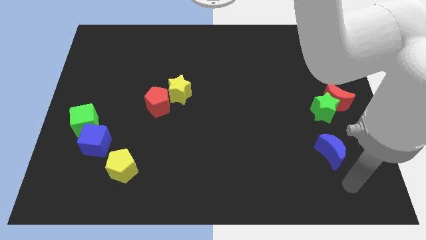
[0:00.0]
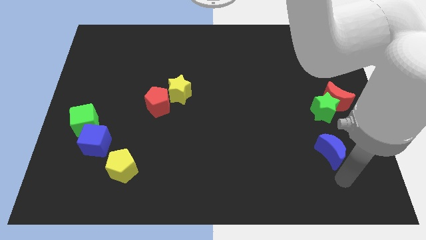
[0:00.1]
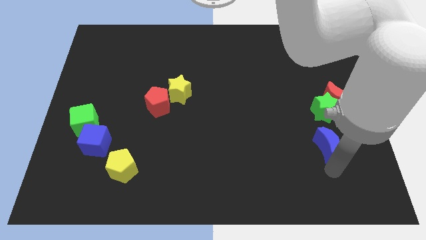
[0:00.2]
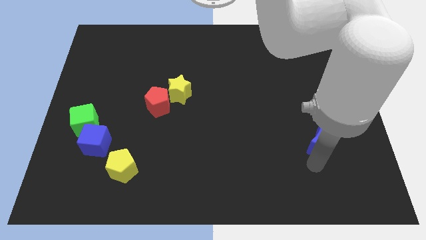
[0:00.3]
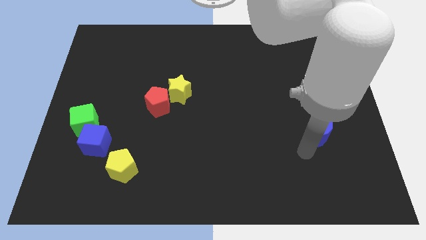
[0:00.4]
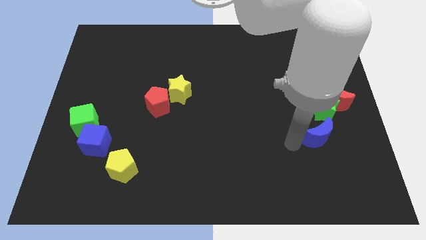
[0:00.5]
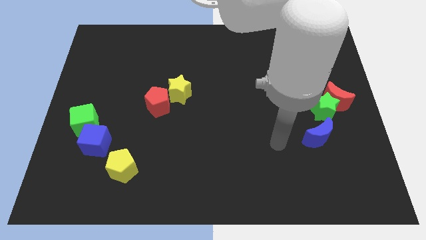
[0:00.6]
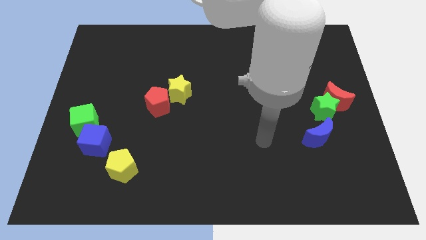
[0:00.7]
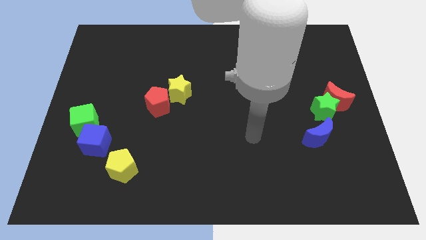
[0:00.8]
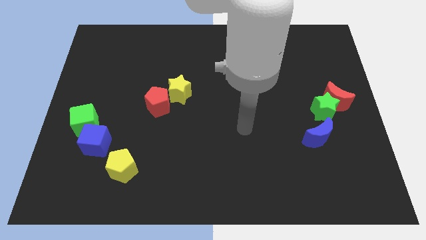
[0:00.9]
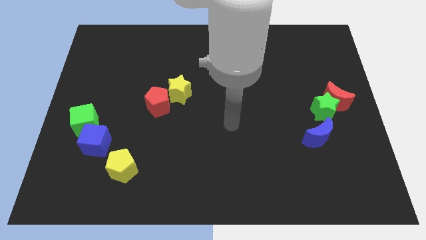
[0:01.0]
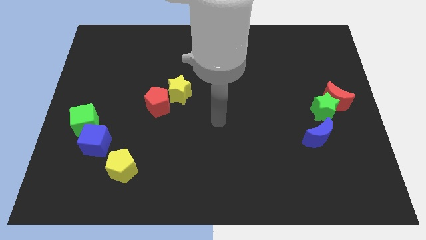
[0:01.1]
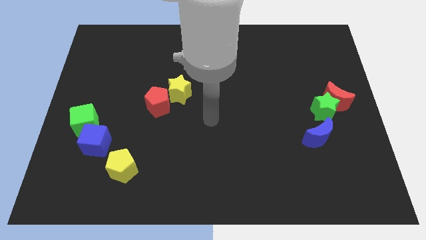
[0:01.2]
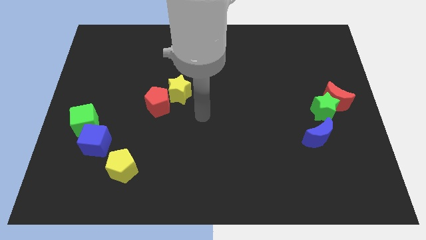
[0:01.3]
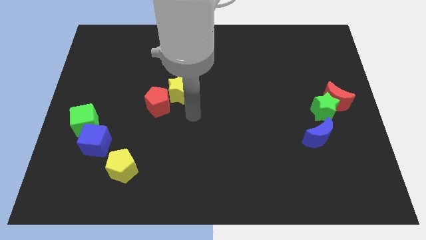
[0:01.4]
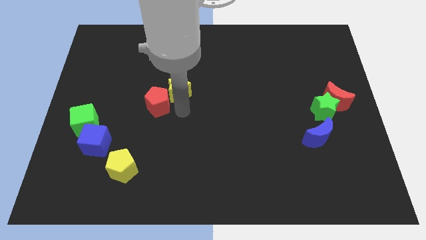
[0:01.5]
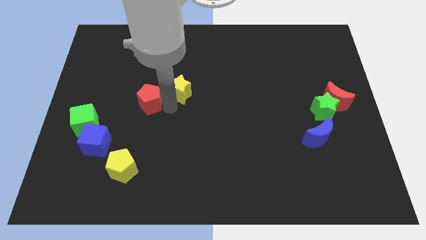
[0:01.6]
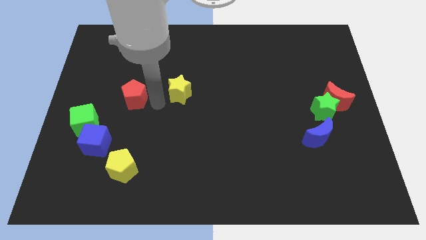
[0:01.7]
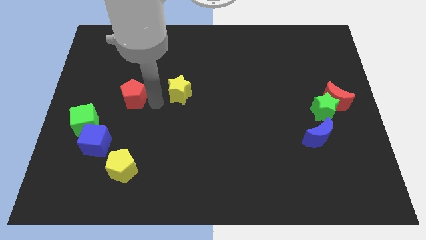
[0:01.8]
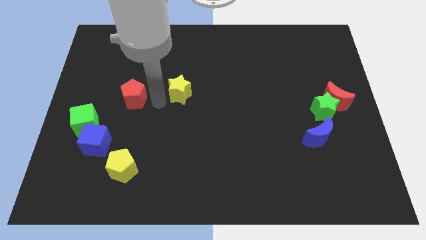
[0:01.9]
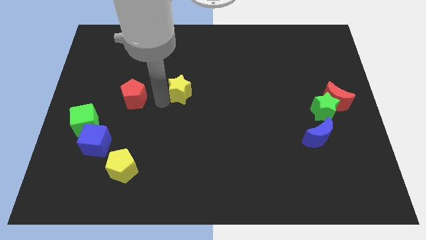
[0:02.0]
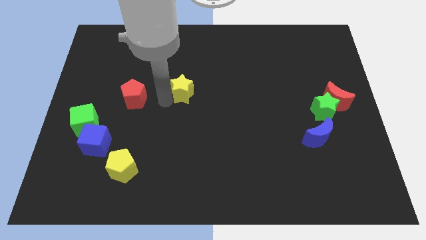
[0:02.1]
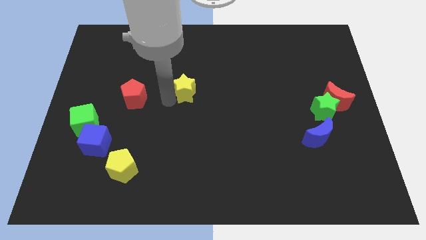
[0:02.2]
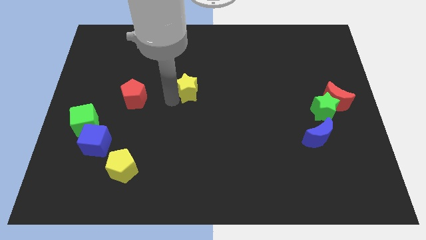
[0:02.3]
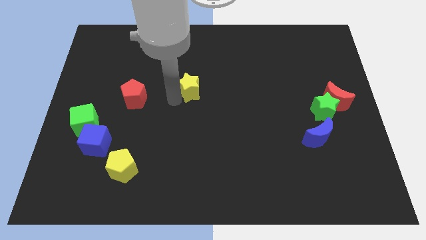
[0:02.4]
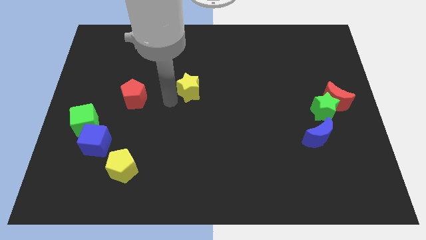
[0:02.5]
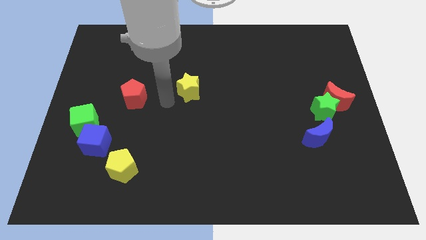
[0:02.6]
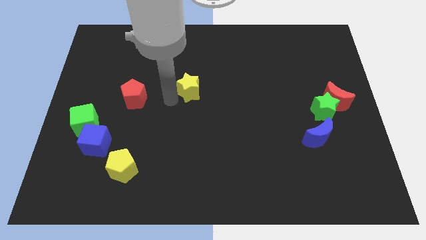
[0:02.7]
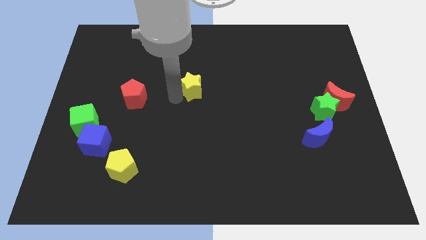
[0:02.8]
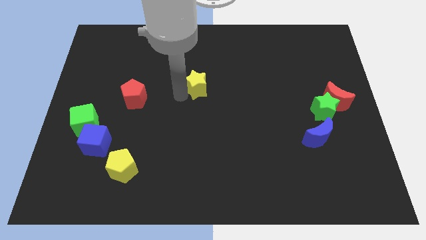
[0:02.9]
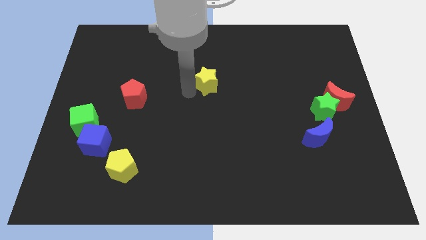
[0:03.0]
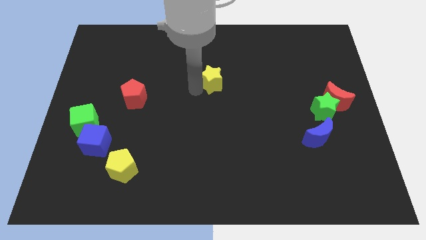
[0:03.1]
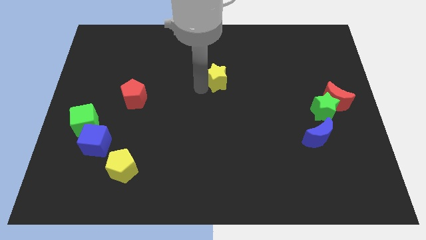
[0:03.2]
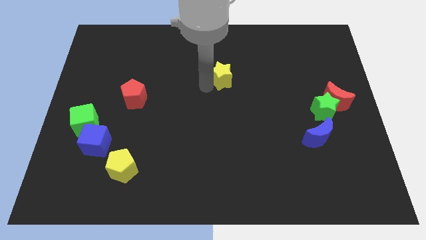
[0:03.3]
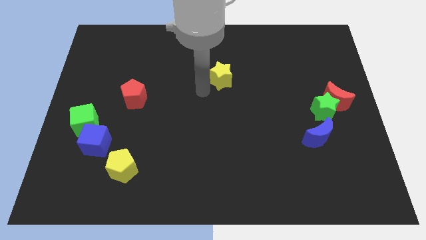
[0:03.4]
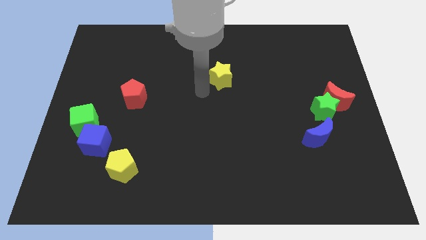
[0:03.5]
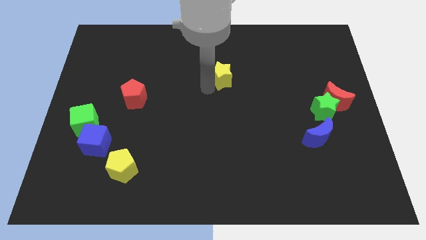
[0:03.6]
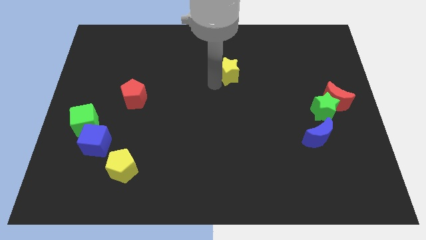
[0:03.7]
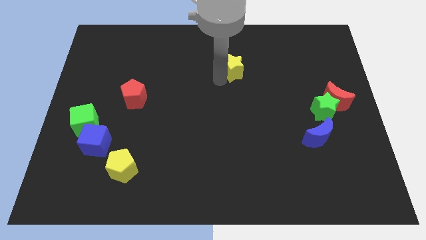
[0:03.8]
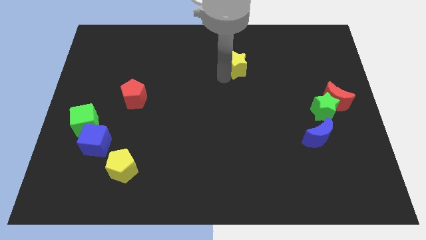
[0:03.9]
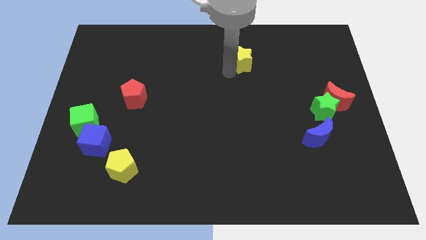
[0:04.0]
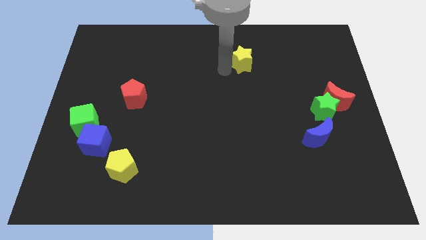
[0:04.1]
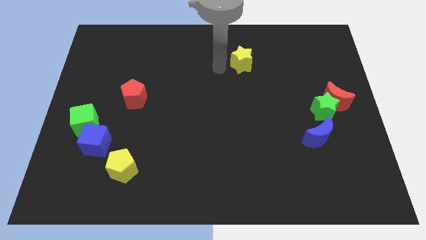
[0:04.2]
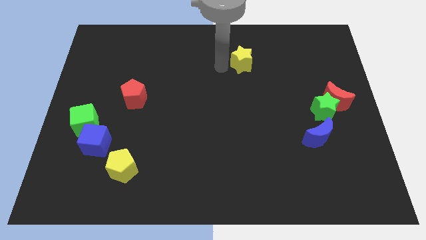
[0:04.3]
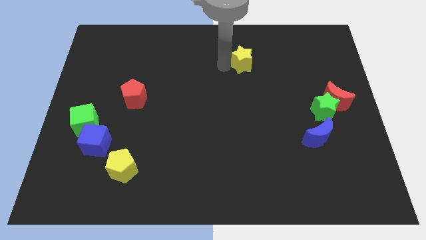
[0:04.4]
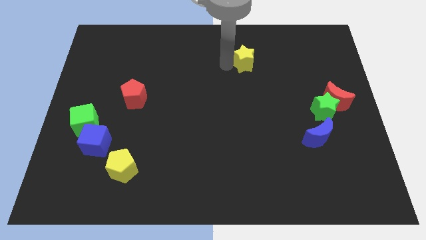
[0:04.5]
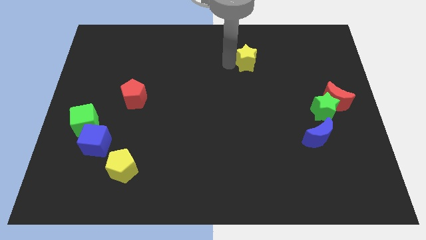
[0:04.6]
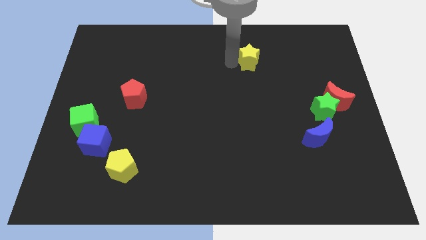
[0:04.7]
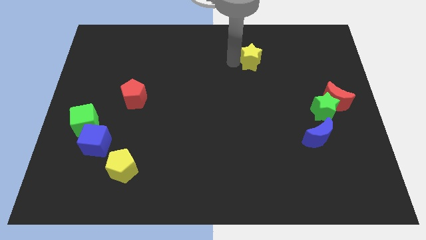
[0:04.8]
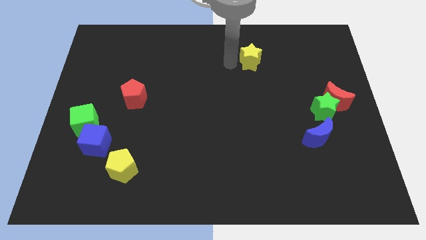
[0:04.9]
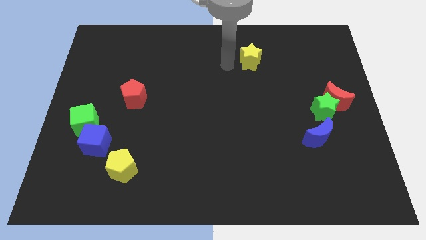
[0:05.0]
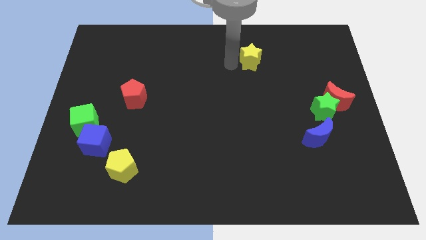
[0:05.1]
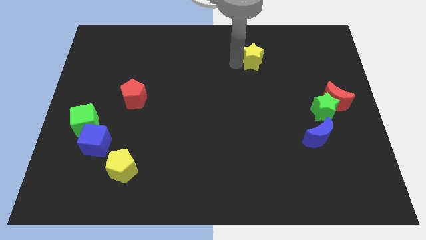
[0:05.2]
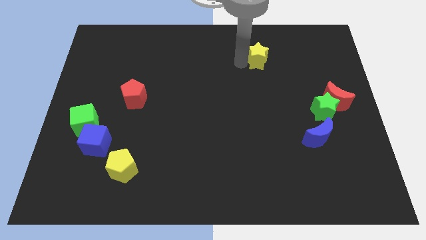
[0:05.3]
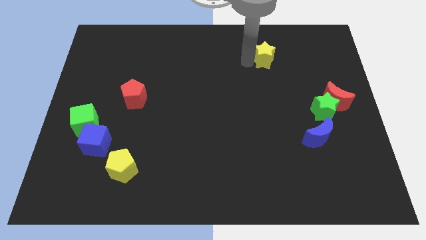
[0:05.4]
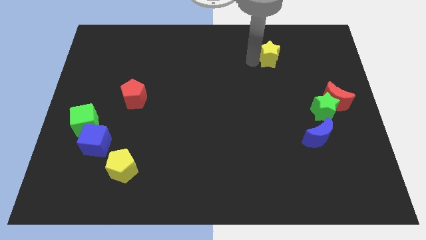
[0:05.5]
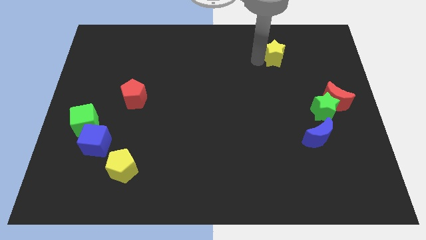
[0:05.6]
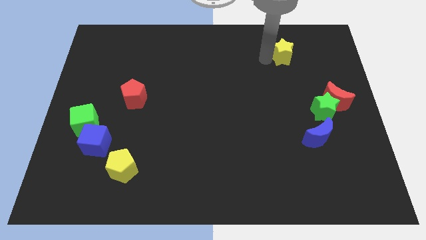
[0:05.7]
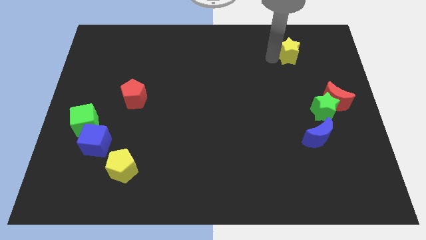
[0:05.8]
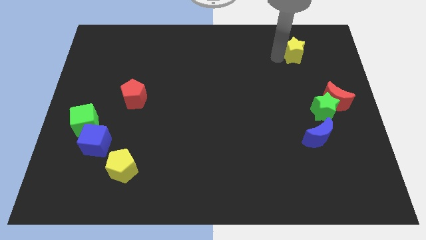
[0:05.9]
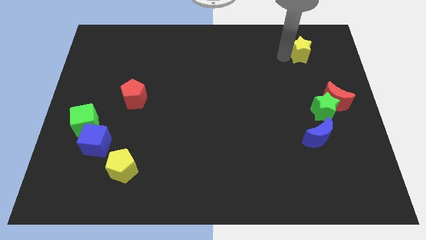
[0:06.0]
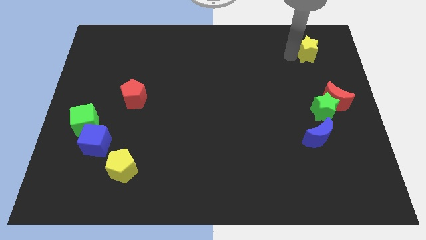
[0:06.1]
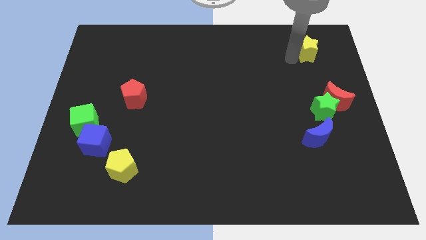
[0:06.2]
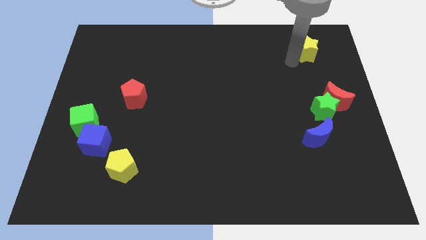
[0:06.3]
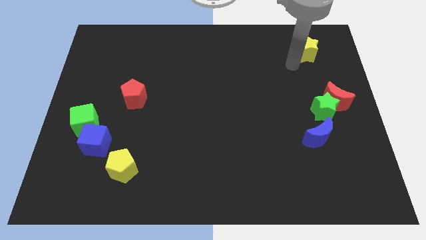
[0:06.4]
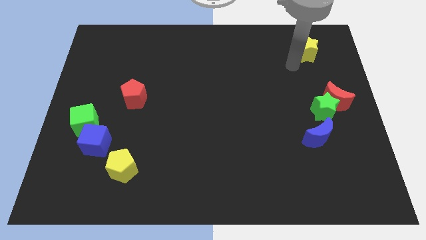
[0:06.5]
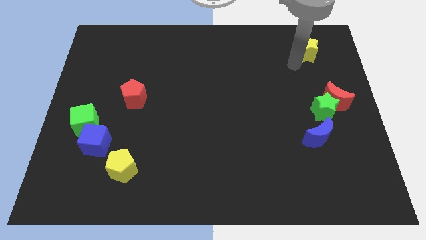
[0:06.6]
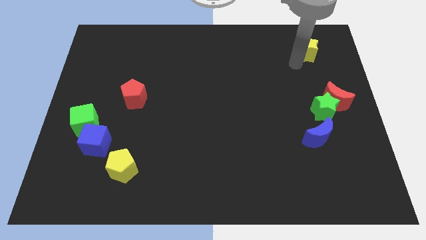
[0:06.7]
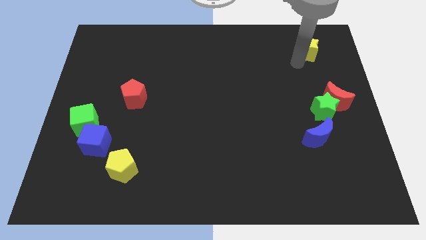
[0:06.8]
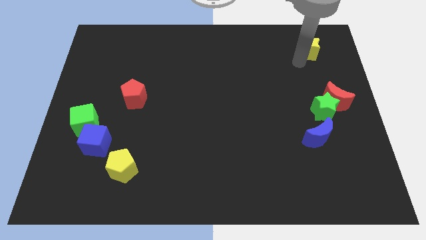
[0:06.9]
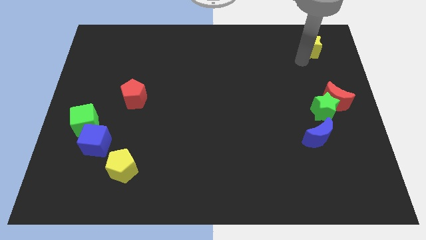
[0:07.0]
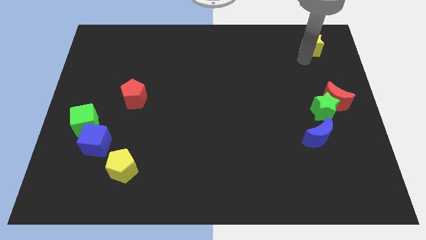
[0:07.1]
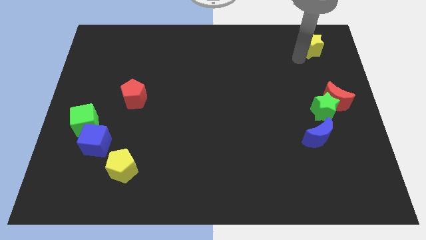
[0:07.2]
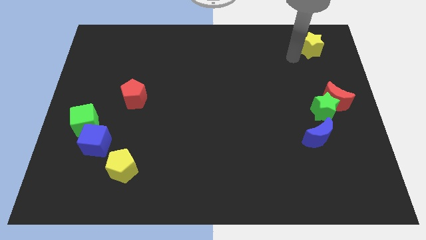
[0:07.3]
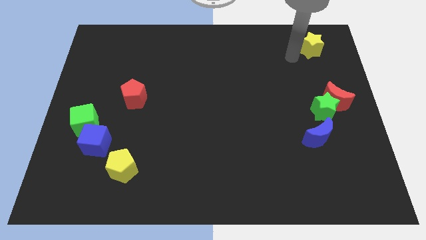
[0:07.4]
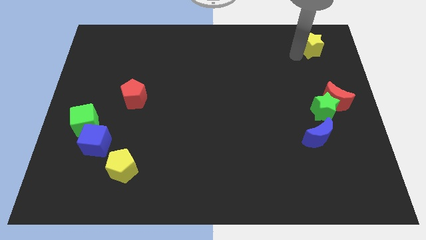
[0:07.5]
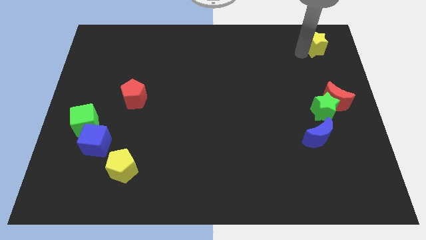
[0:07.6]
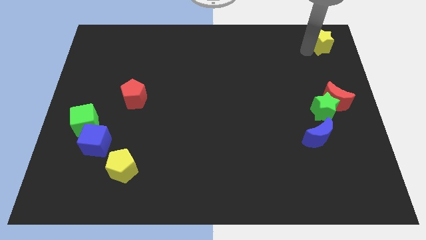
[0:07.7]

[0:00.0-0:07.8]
push the yellow star to the top right
